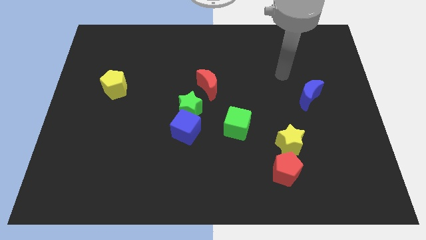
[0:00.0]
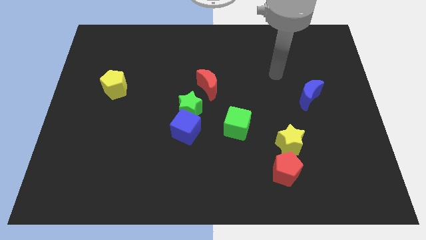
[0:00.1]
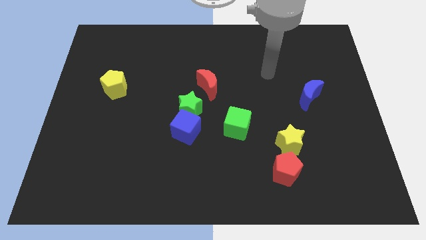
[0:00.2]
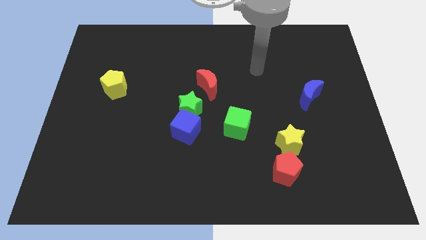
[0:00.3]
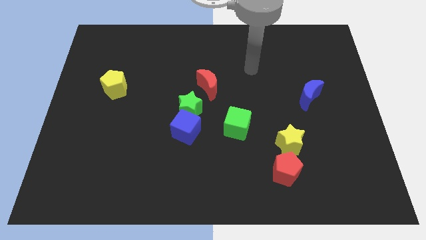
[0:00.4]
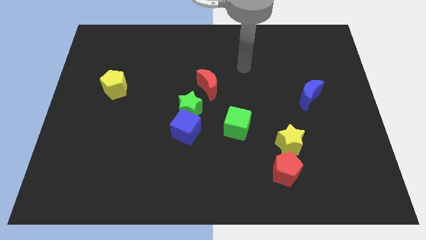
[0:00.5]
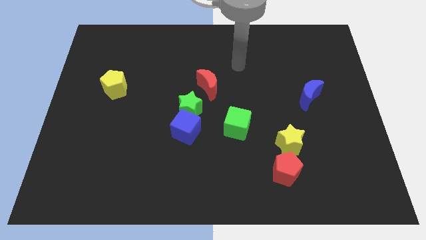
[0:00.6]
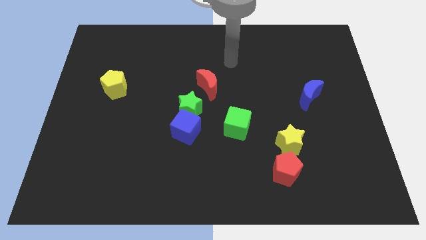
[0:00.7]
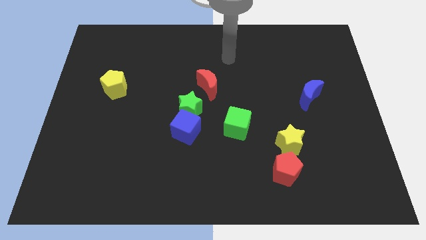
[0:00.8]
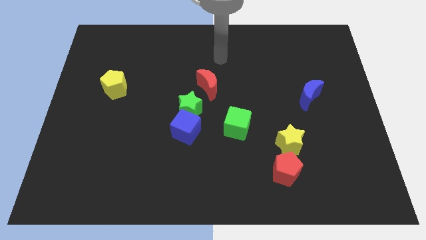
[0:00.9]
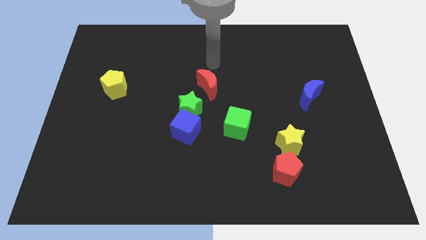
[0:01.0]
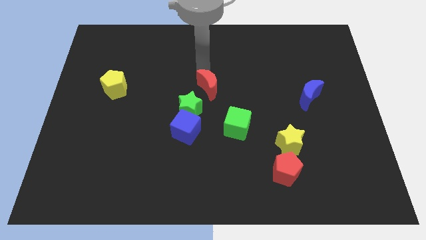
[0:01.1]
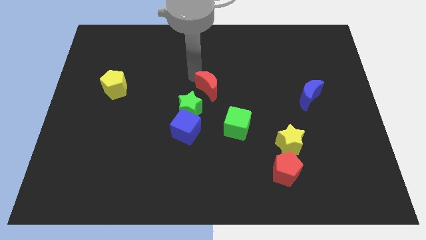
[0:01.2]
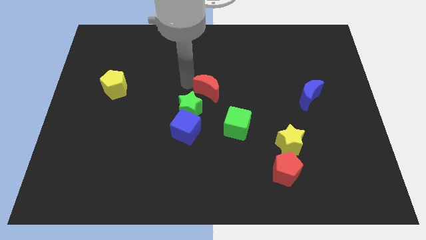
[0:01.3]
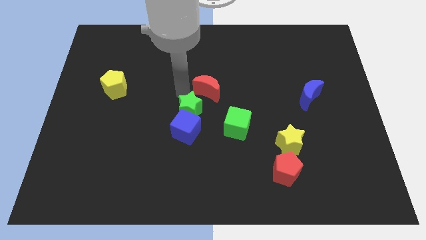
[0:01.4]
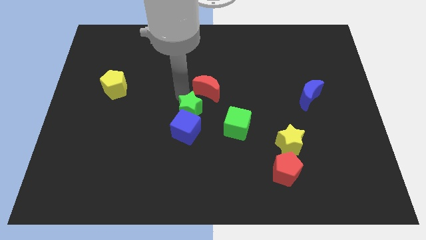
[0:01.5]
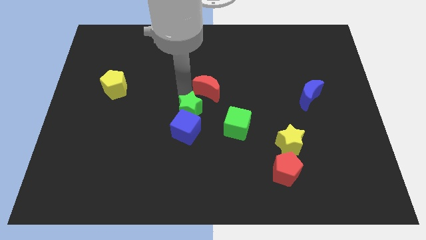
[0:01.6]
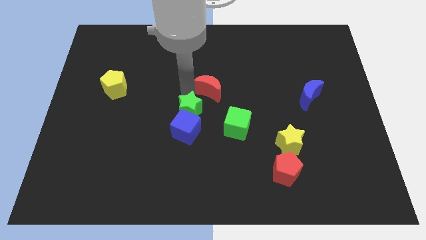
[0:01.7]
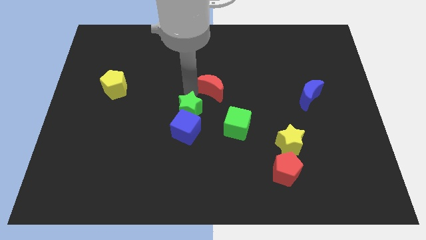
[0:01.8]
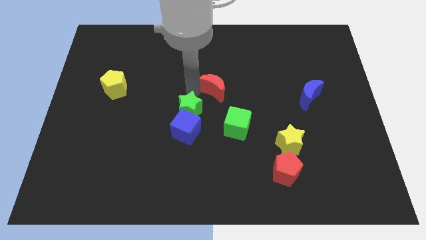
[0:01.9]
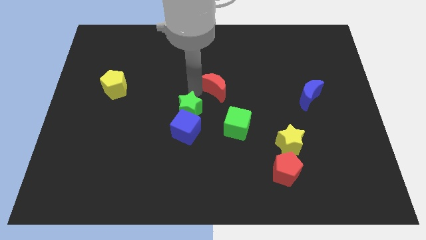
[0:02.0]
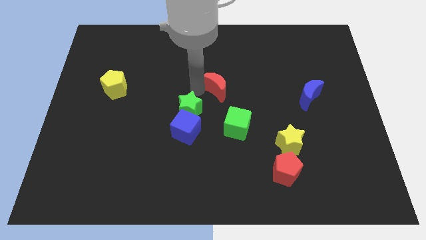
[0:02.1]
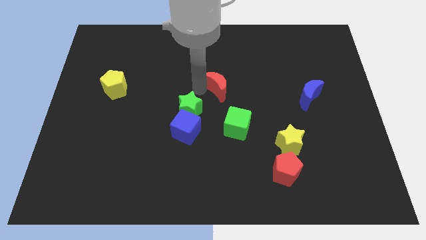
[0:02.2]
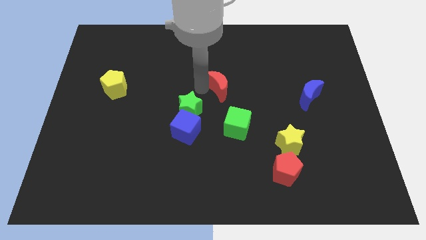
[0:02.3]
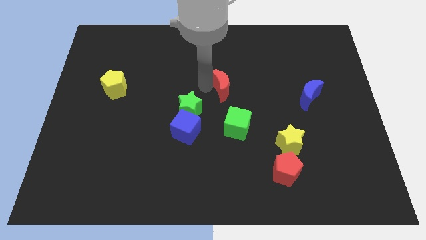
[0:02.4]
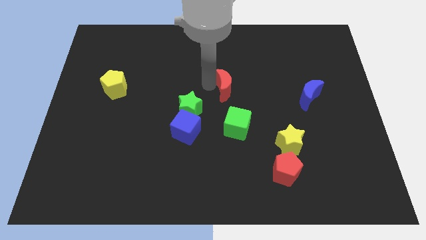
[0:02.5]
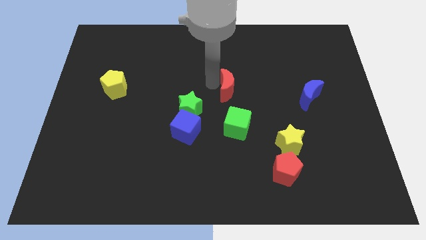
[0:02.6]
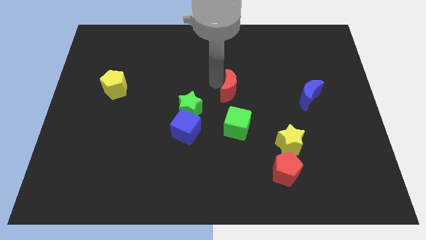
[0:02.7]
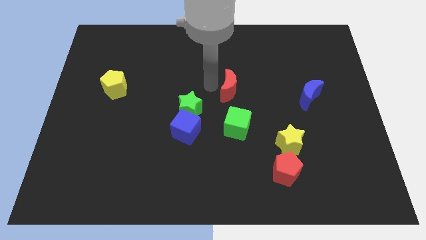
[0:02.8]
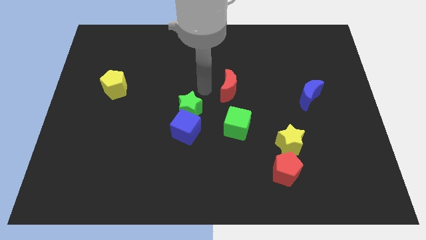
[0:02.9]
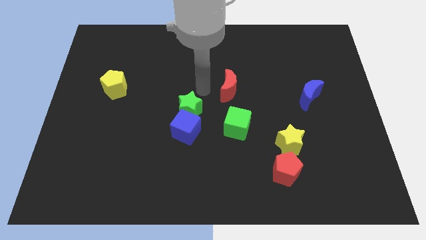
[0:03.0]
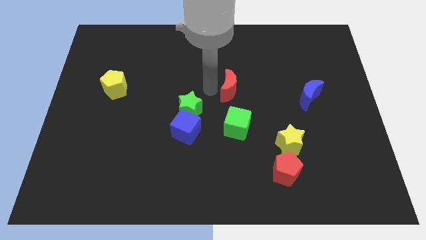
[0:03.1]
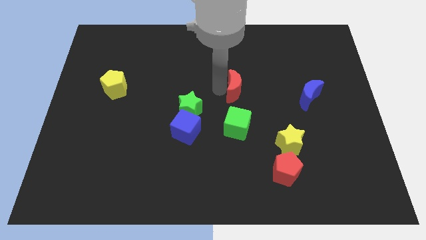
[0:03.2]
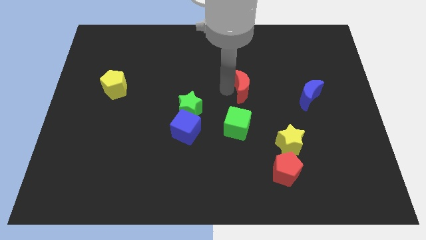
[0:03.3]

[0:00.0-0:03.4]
slightly slide the red moon right

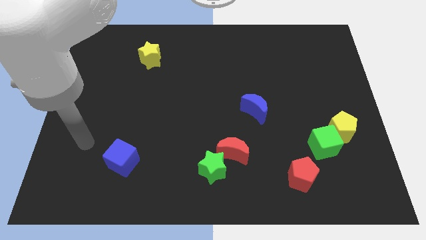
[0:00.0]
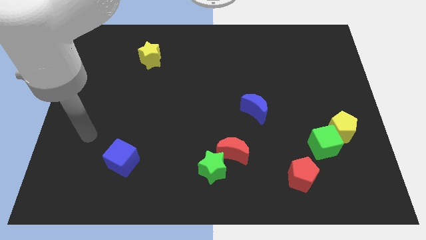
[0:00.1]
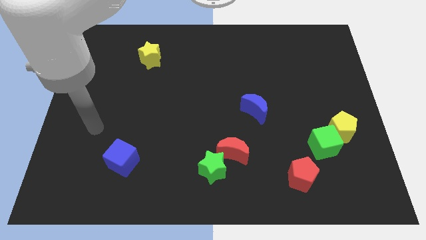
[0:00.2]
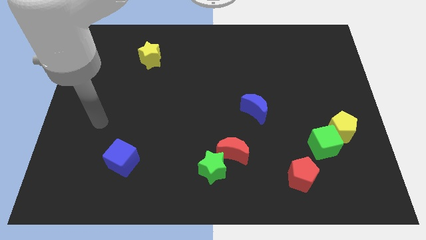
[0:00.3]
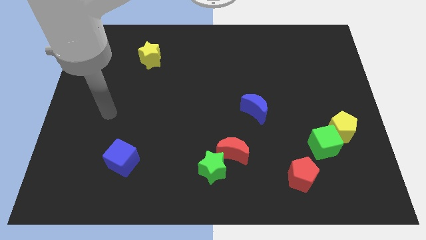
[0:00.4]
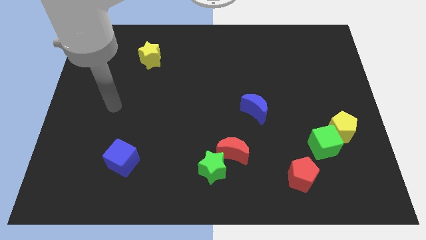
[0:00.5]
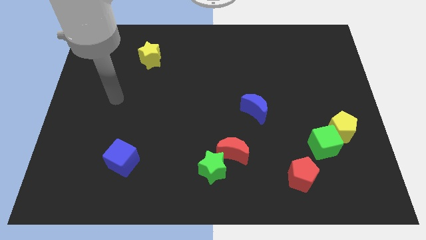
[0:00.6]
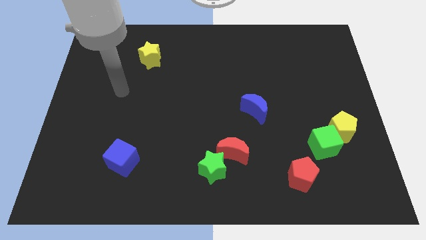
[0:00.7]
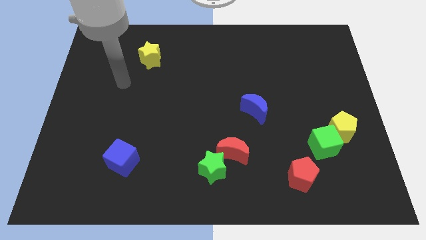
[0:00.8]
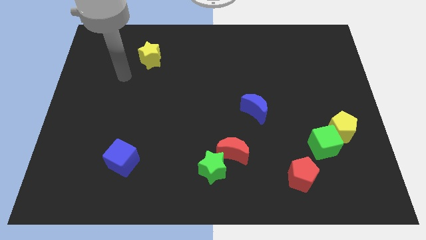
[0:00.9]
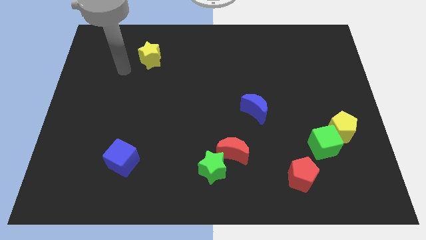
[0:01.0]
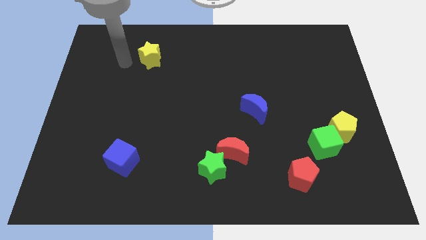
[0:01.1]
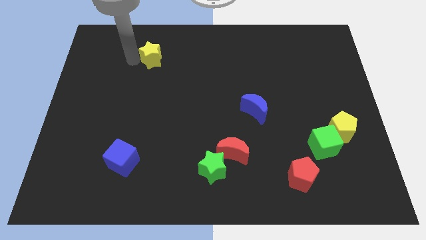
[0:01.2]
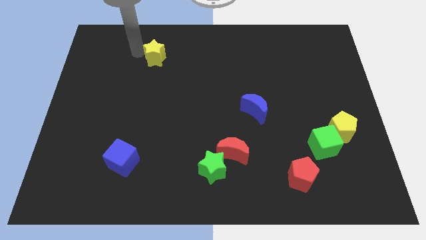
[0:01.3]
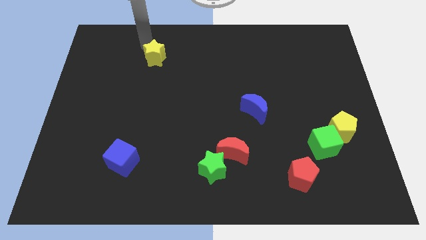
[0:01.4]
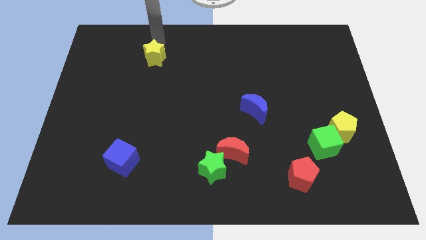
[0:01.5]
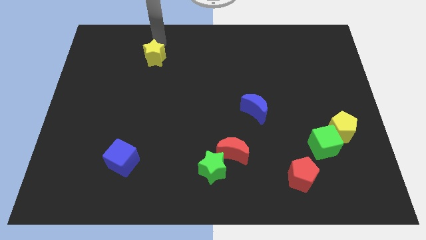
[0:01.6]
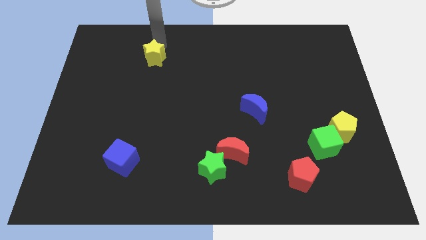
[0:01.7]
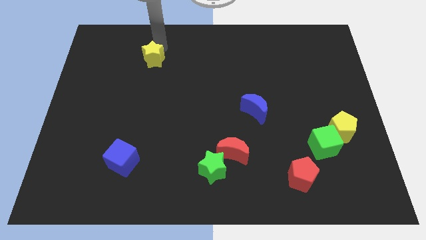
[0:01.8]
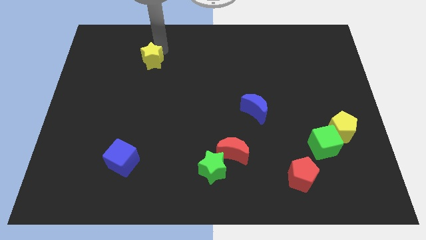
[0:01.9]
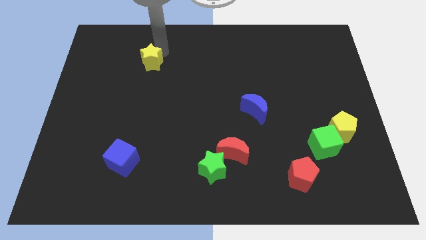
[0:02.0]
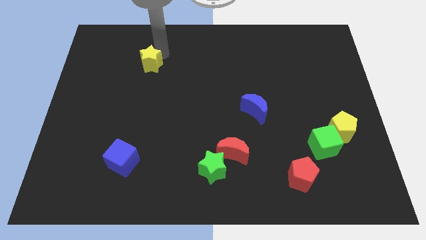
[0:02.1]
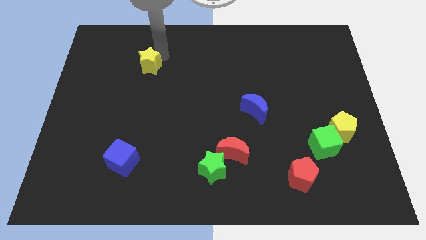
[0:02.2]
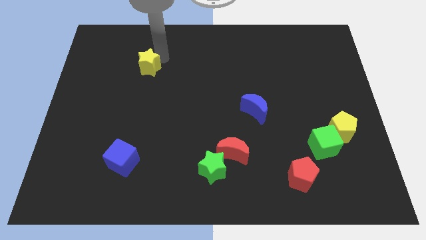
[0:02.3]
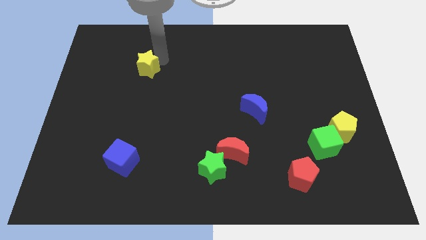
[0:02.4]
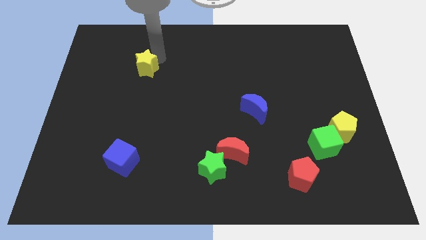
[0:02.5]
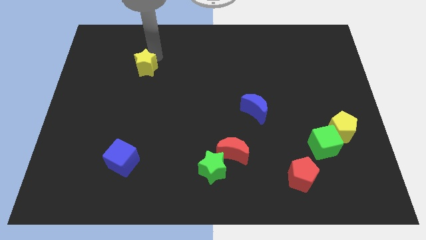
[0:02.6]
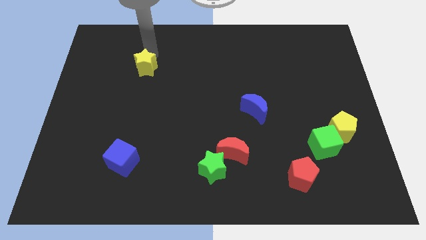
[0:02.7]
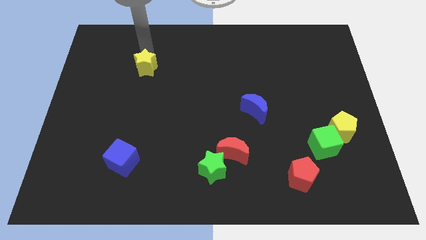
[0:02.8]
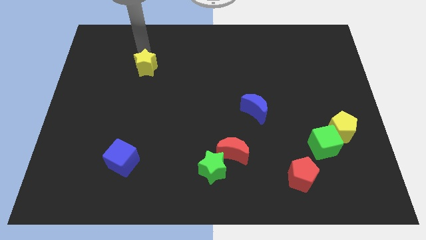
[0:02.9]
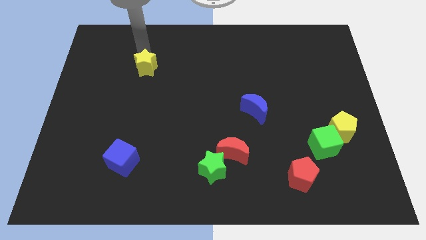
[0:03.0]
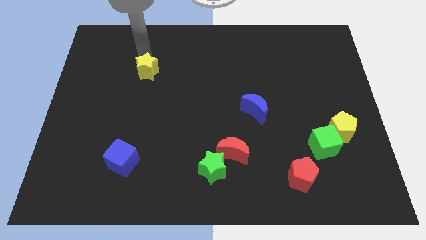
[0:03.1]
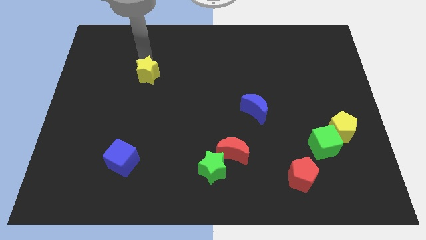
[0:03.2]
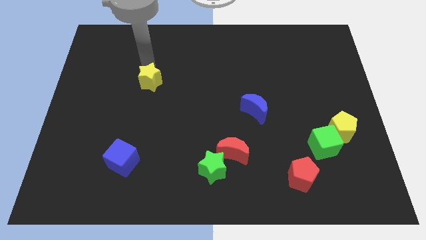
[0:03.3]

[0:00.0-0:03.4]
slightly push the yellow star down

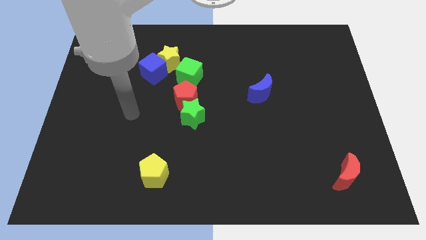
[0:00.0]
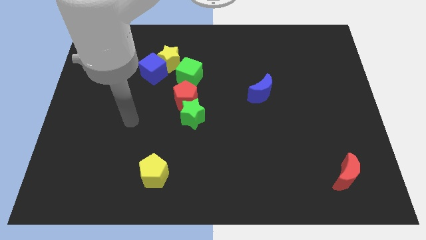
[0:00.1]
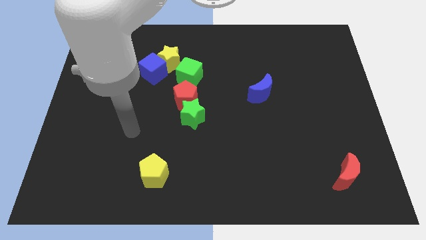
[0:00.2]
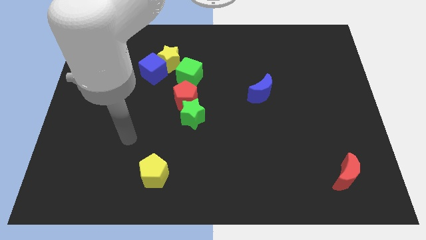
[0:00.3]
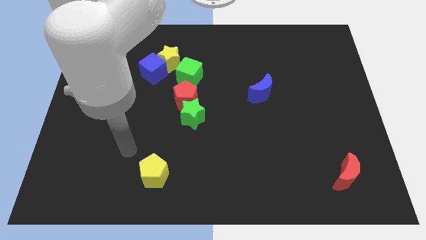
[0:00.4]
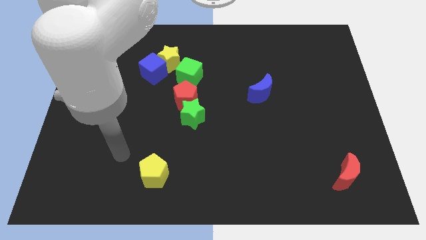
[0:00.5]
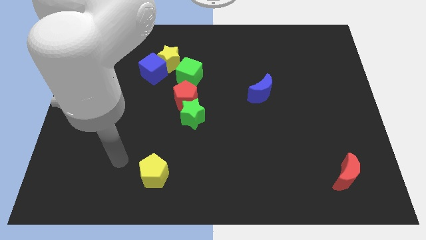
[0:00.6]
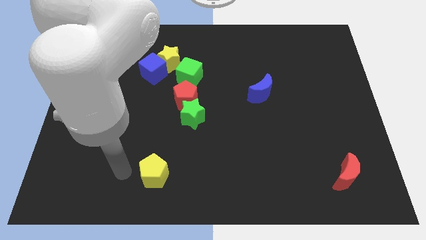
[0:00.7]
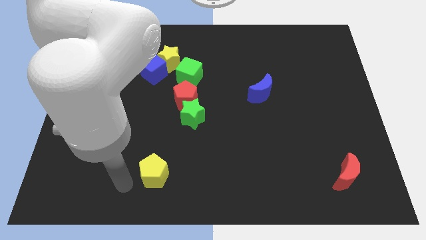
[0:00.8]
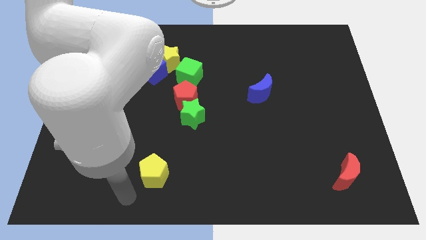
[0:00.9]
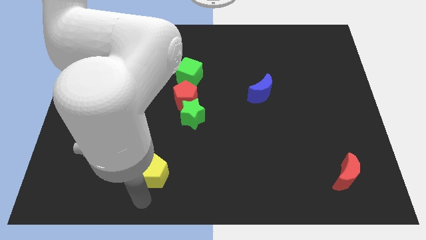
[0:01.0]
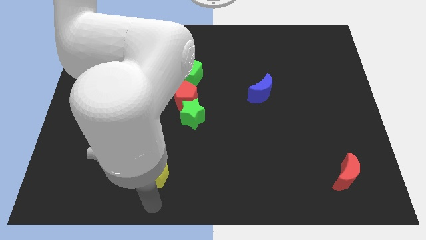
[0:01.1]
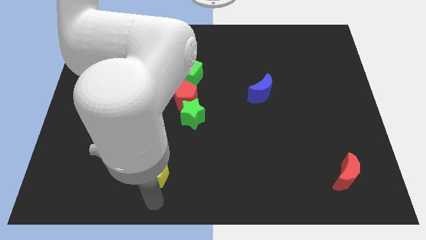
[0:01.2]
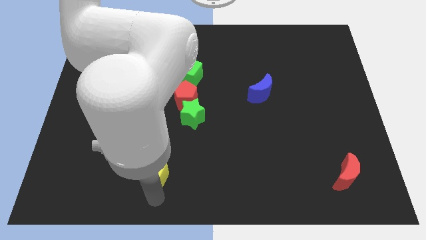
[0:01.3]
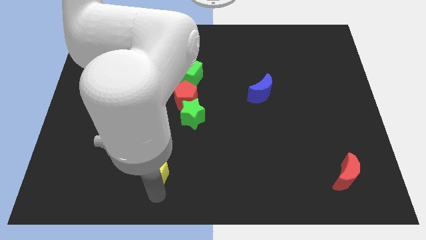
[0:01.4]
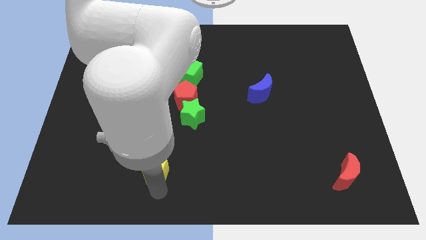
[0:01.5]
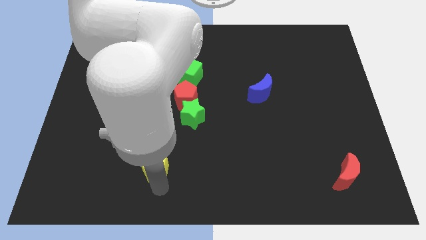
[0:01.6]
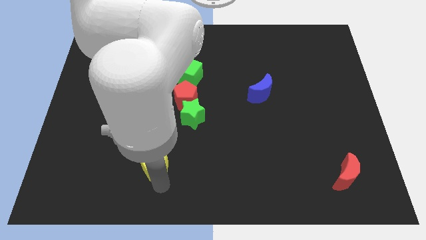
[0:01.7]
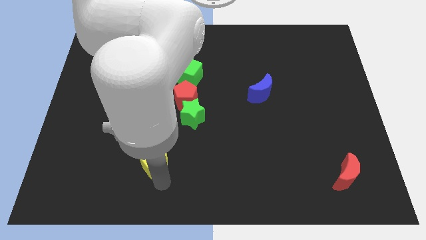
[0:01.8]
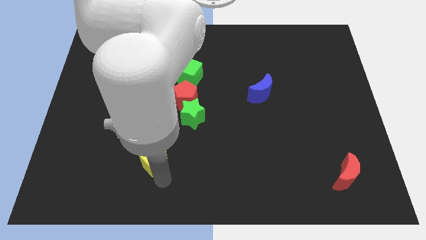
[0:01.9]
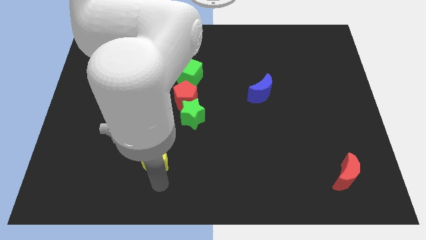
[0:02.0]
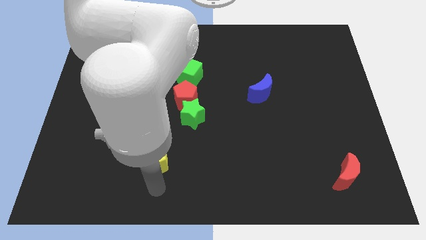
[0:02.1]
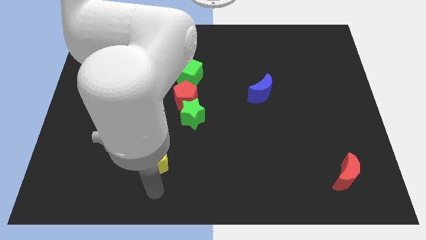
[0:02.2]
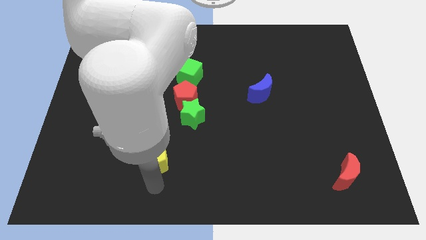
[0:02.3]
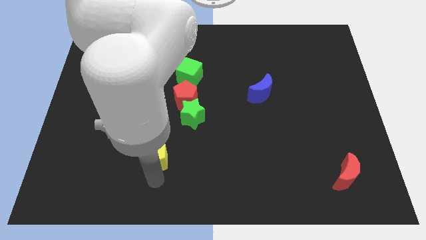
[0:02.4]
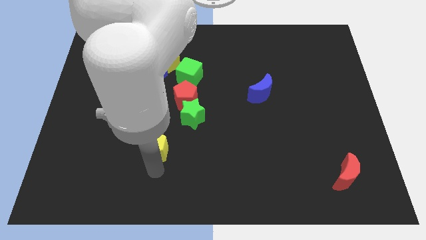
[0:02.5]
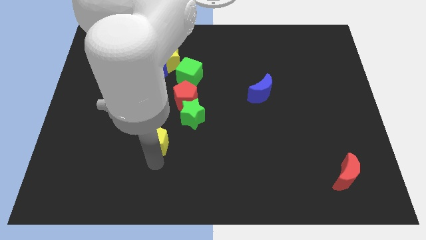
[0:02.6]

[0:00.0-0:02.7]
slightly move the yellow pentagon upwards
